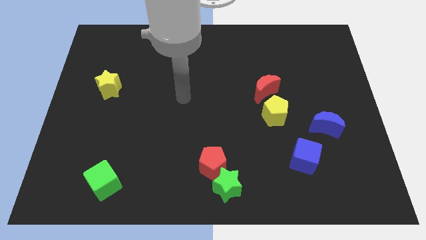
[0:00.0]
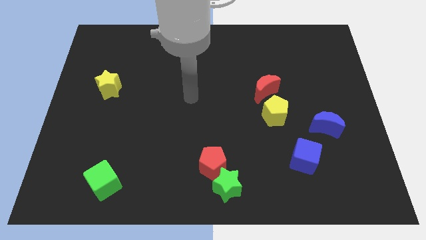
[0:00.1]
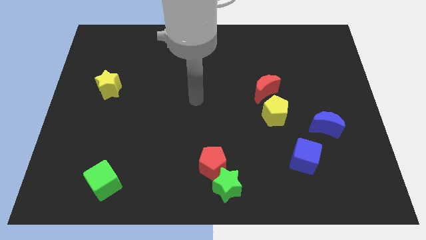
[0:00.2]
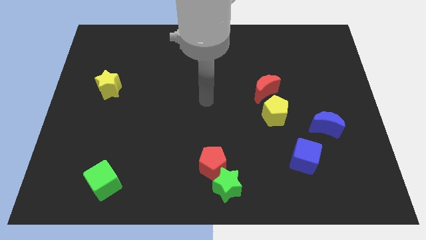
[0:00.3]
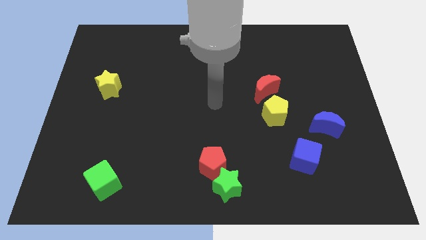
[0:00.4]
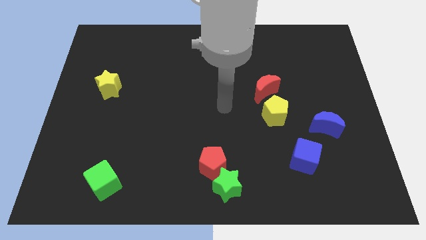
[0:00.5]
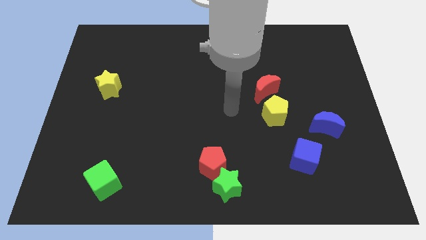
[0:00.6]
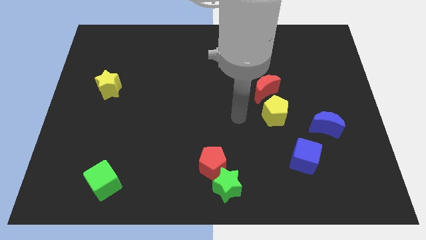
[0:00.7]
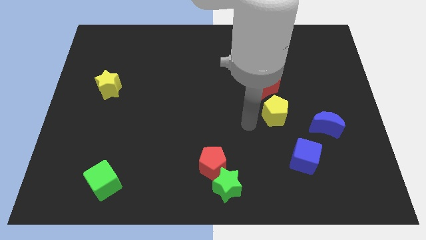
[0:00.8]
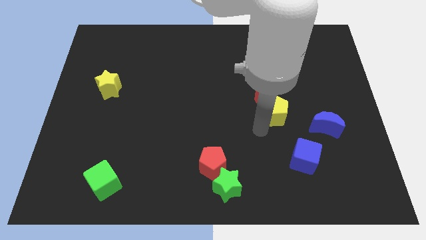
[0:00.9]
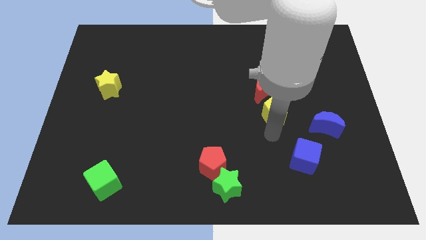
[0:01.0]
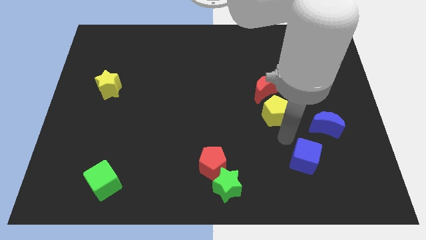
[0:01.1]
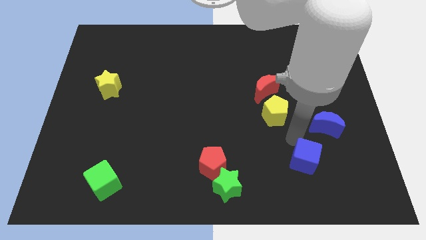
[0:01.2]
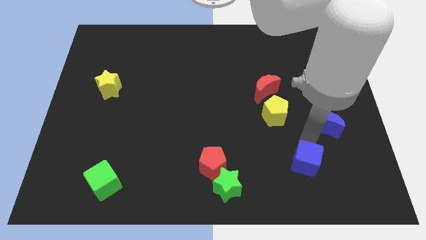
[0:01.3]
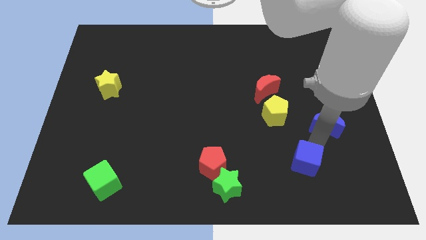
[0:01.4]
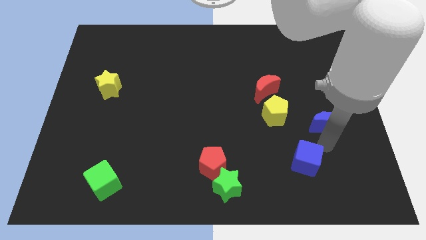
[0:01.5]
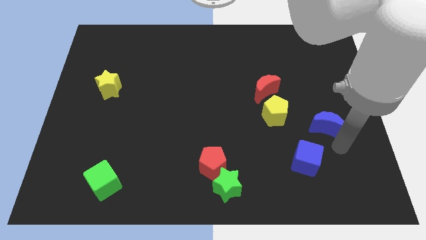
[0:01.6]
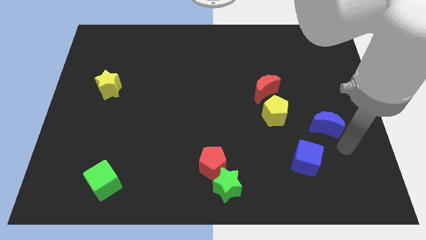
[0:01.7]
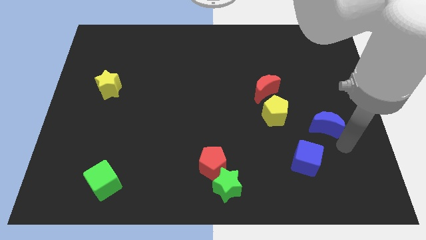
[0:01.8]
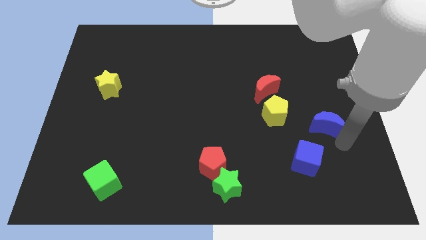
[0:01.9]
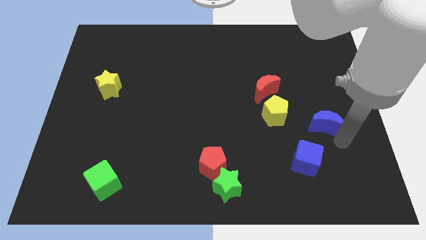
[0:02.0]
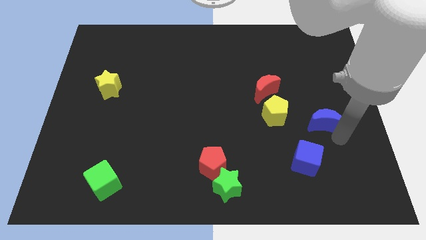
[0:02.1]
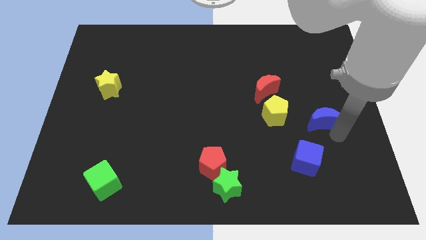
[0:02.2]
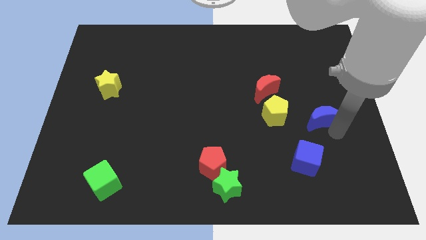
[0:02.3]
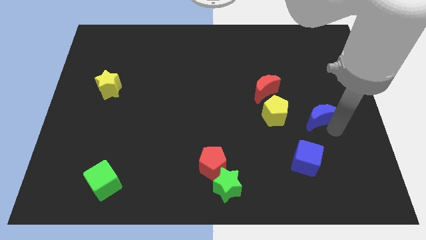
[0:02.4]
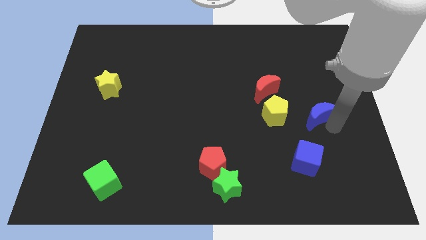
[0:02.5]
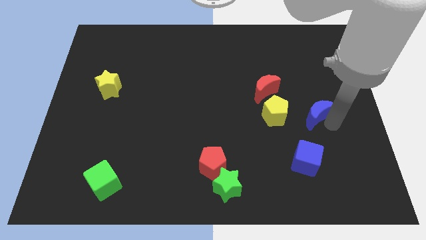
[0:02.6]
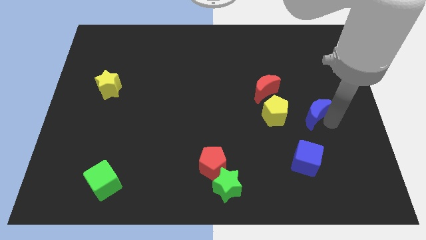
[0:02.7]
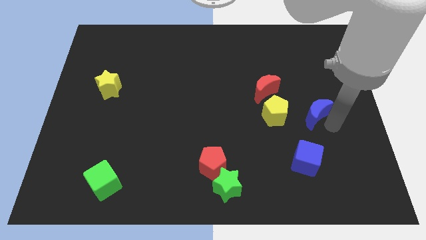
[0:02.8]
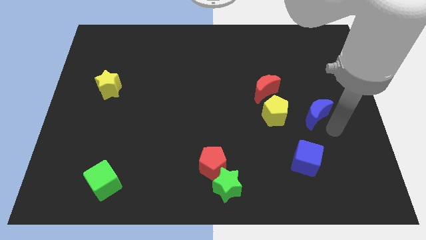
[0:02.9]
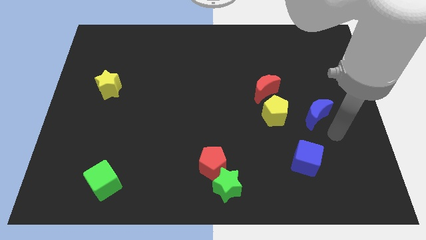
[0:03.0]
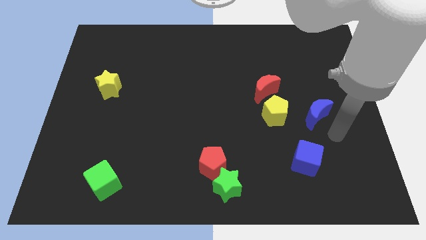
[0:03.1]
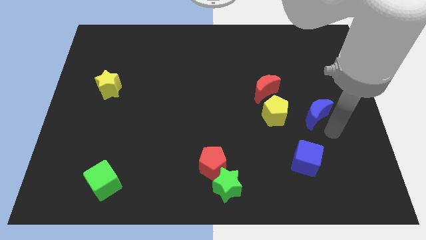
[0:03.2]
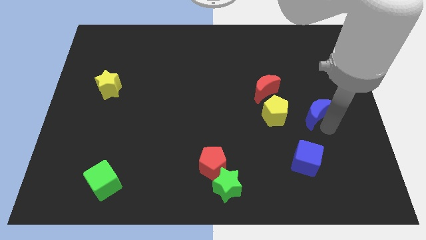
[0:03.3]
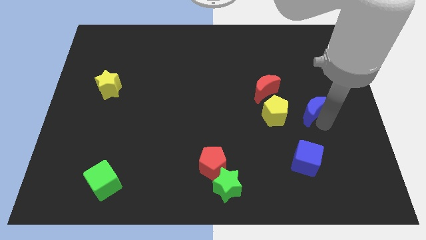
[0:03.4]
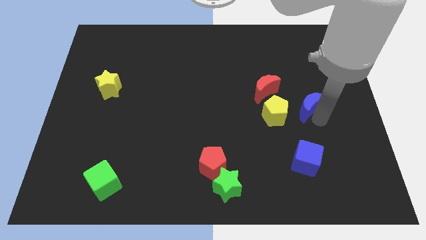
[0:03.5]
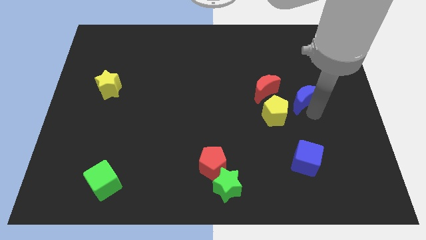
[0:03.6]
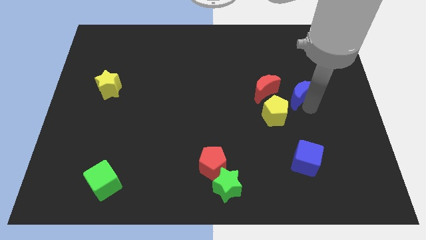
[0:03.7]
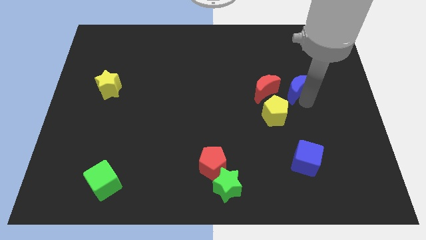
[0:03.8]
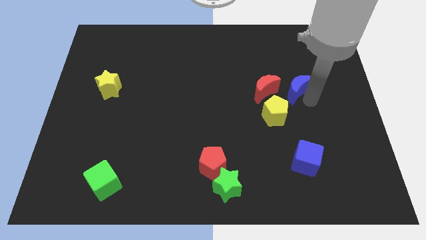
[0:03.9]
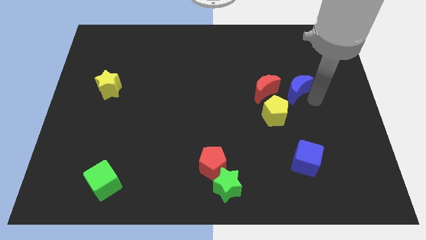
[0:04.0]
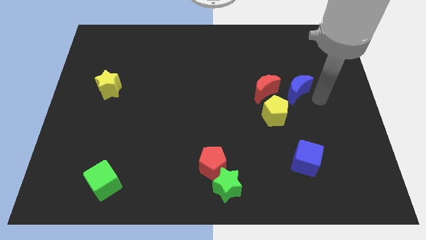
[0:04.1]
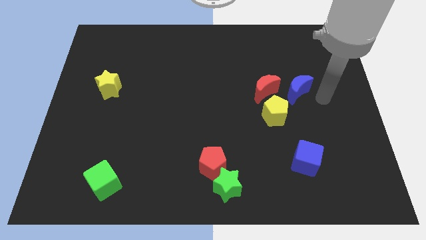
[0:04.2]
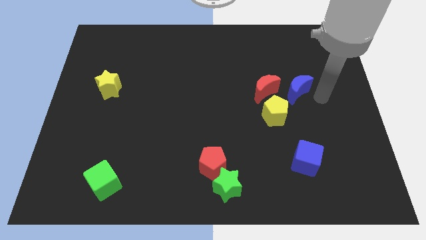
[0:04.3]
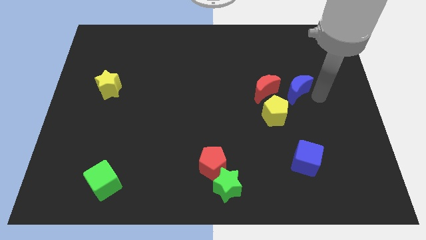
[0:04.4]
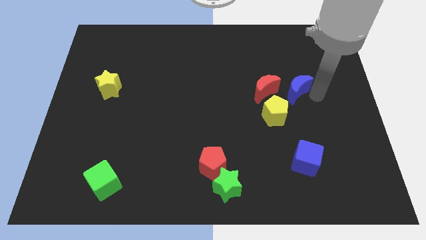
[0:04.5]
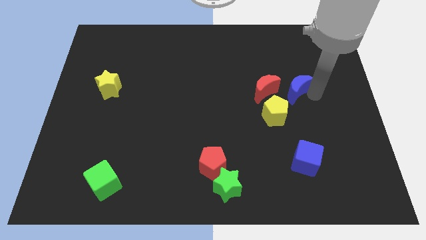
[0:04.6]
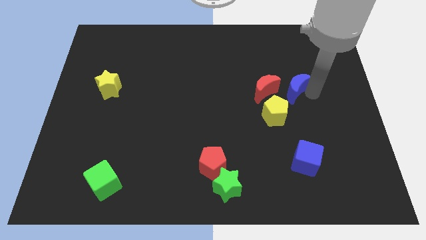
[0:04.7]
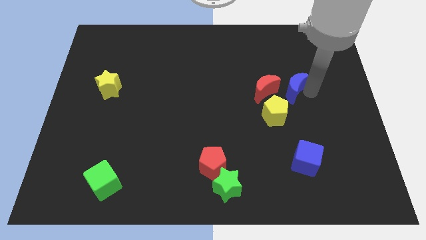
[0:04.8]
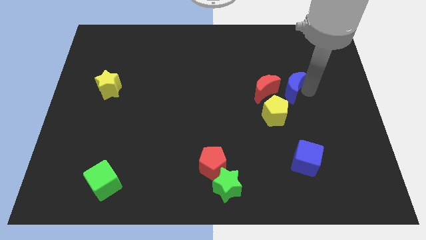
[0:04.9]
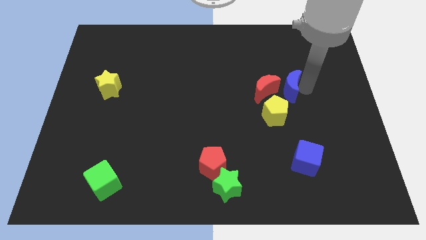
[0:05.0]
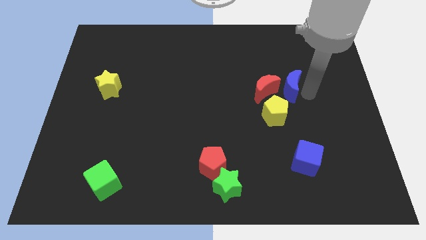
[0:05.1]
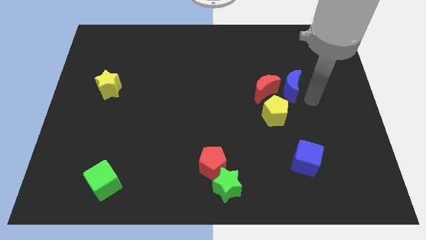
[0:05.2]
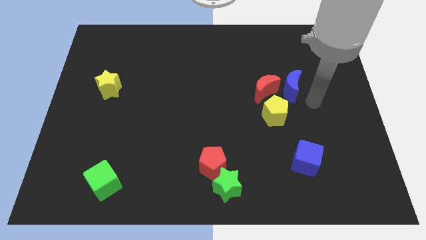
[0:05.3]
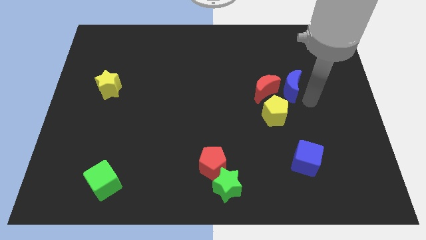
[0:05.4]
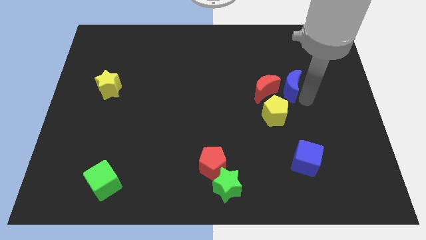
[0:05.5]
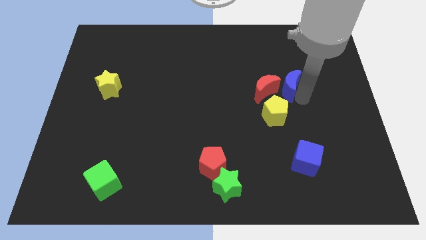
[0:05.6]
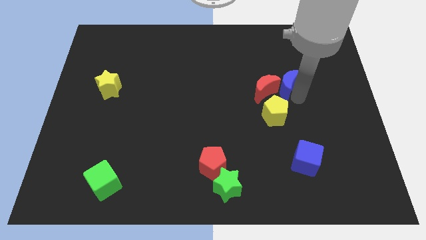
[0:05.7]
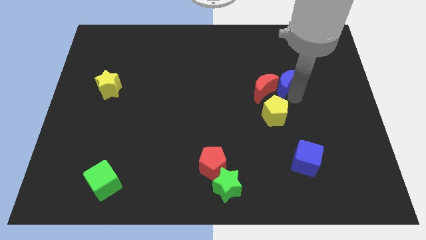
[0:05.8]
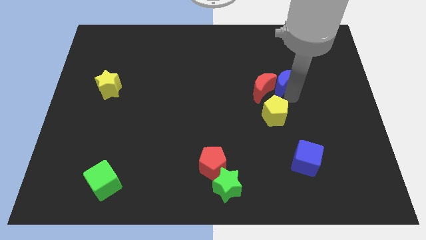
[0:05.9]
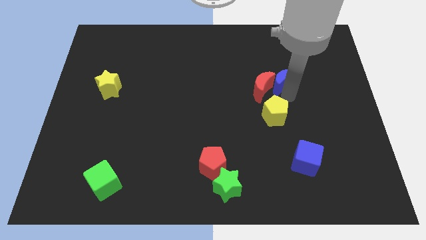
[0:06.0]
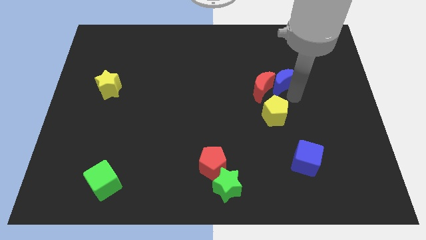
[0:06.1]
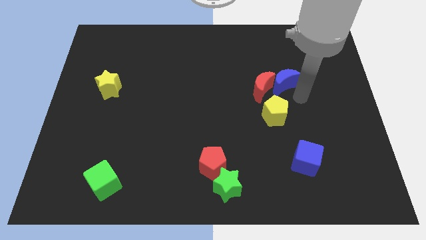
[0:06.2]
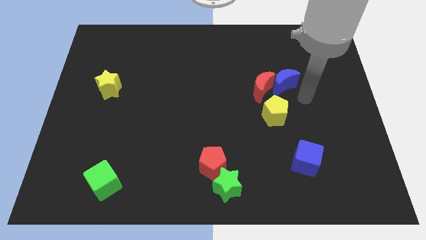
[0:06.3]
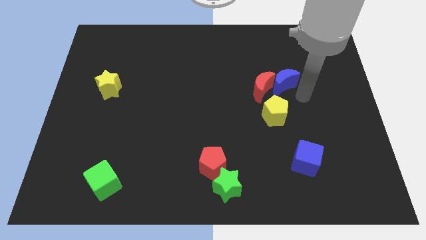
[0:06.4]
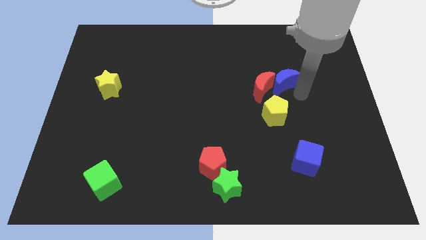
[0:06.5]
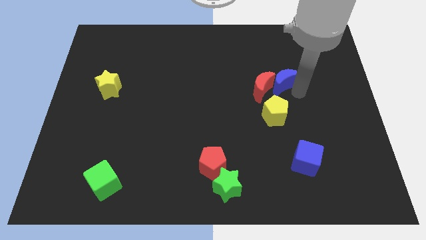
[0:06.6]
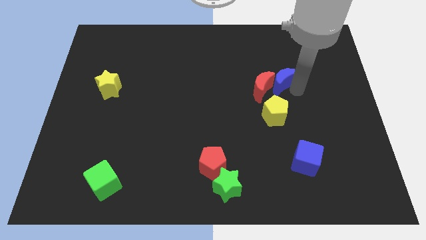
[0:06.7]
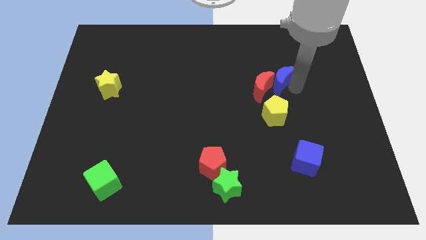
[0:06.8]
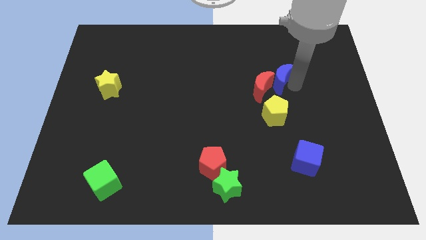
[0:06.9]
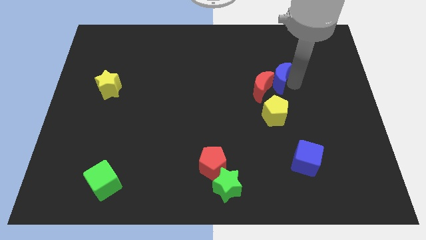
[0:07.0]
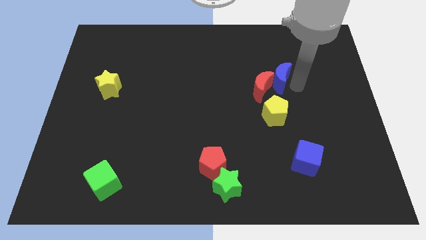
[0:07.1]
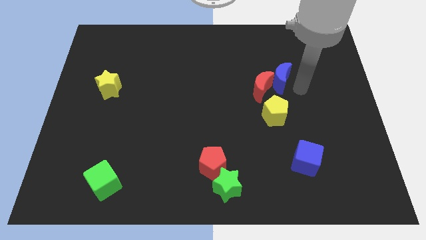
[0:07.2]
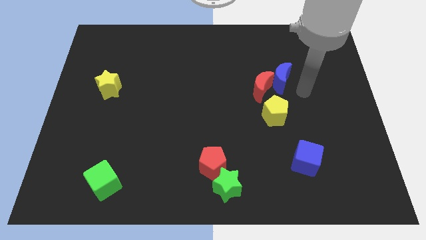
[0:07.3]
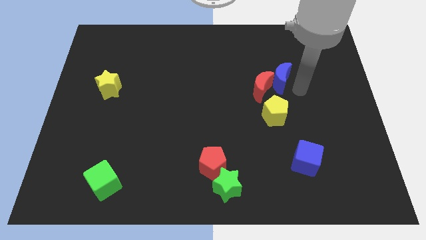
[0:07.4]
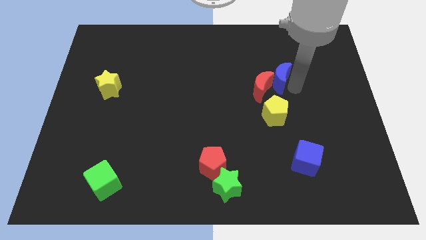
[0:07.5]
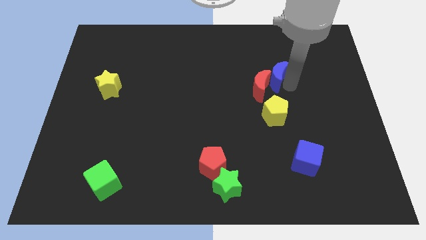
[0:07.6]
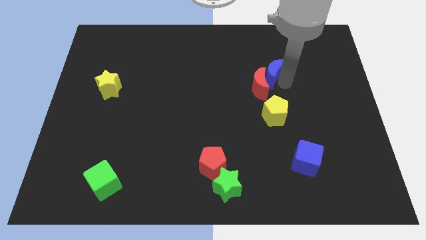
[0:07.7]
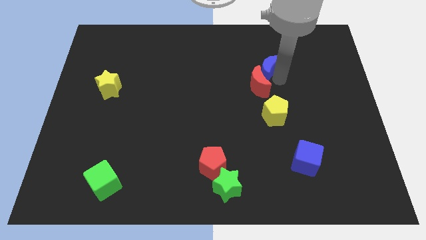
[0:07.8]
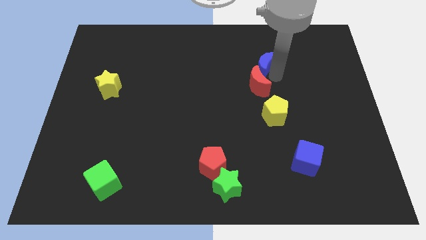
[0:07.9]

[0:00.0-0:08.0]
push the blue moon diagonally upwards and to the left

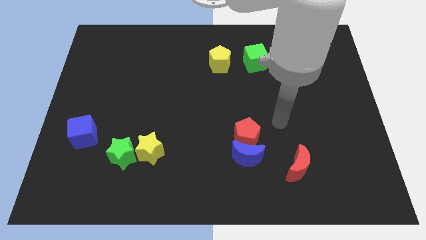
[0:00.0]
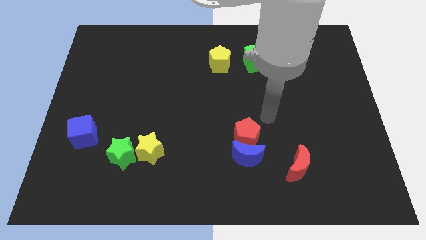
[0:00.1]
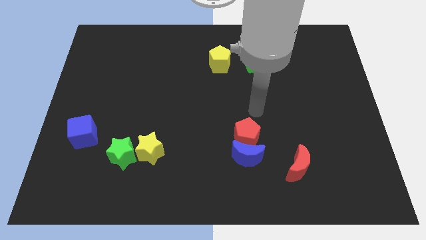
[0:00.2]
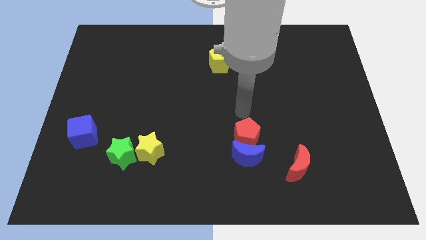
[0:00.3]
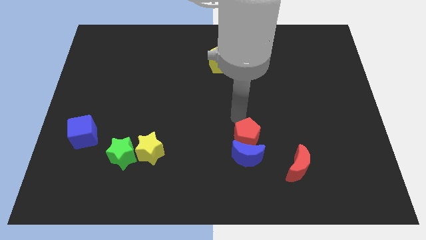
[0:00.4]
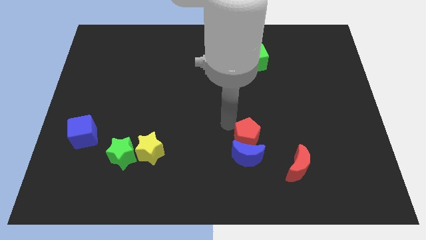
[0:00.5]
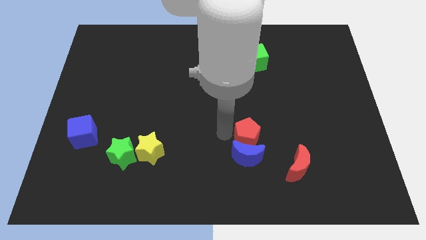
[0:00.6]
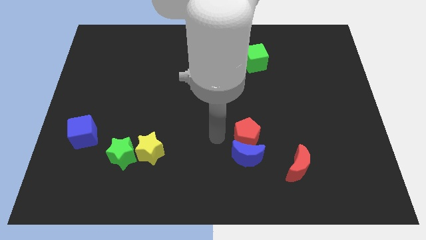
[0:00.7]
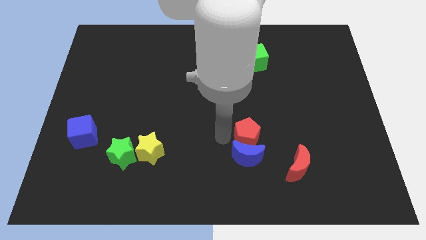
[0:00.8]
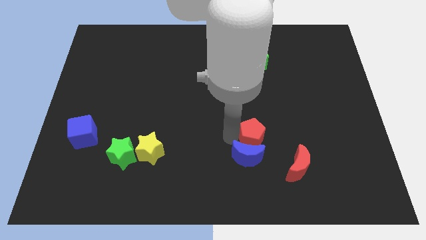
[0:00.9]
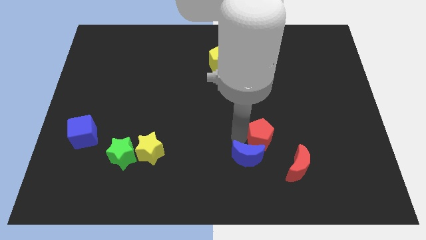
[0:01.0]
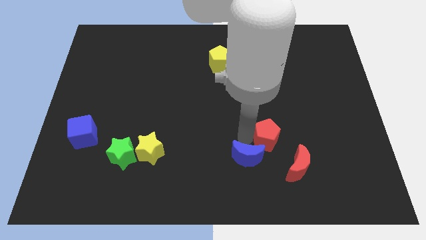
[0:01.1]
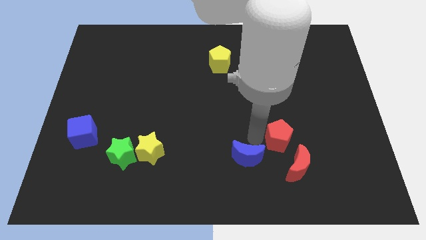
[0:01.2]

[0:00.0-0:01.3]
push the red pentagon to the right a bit
